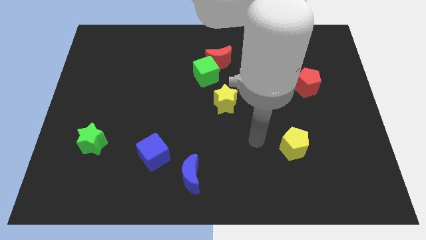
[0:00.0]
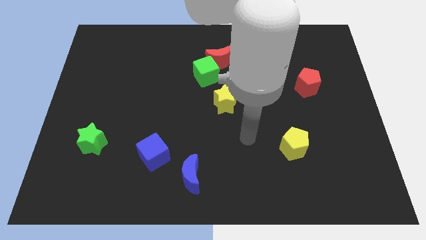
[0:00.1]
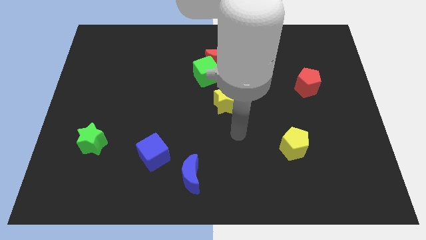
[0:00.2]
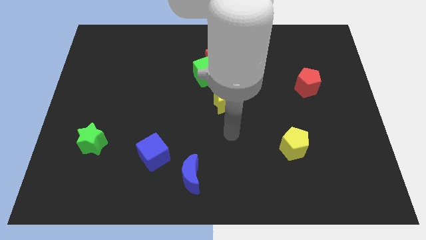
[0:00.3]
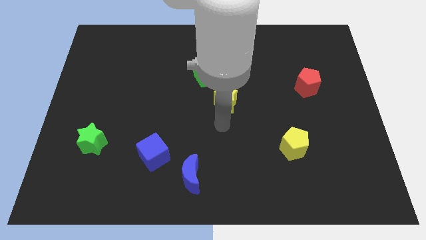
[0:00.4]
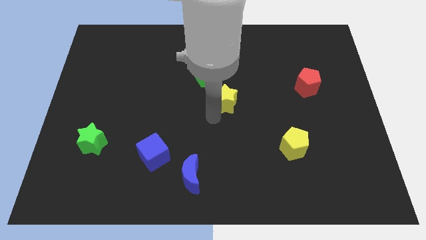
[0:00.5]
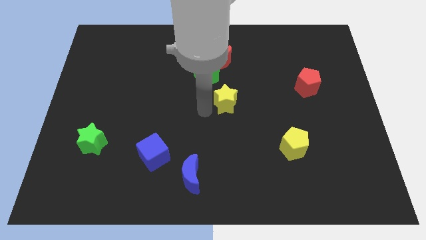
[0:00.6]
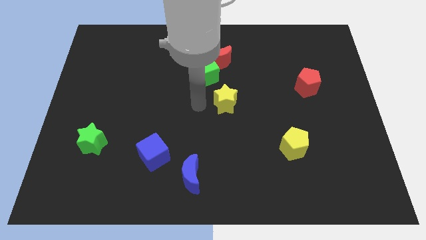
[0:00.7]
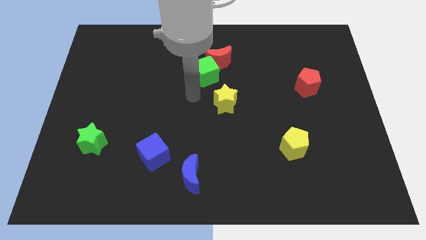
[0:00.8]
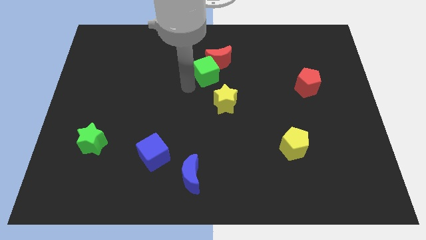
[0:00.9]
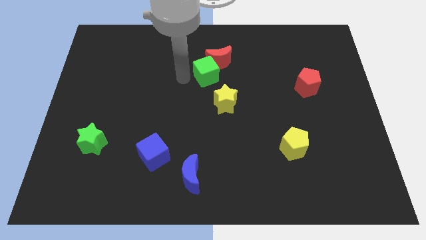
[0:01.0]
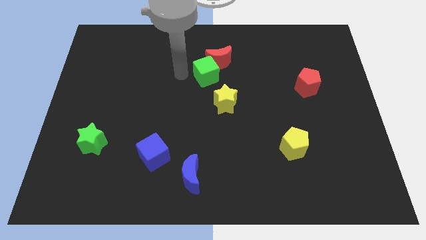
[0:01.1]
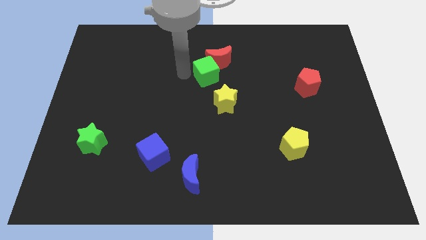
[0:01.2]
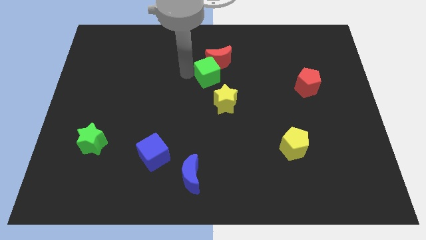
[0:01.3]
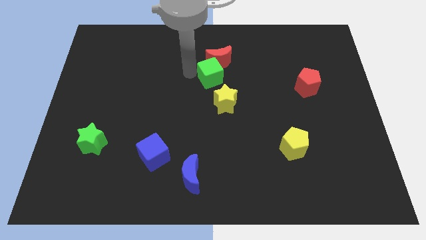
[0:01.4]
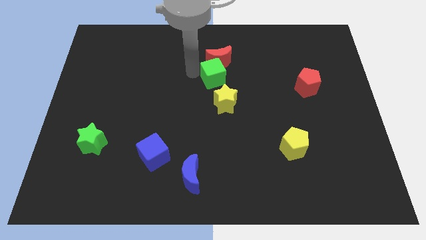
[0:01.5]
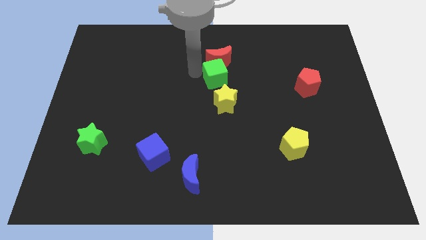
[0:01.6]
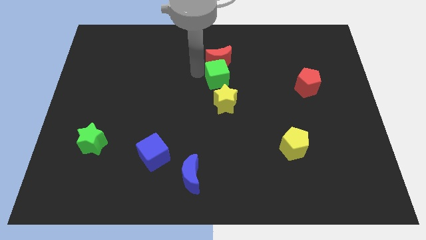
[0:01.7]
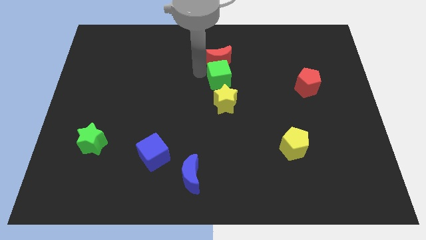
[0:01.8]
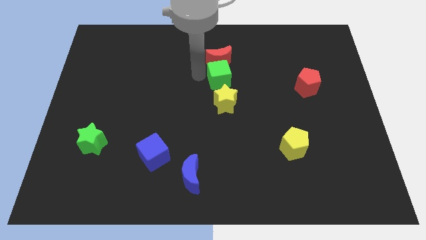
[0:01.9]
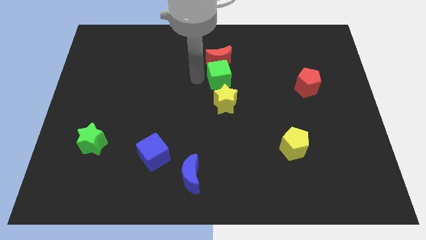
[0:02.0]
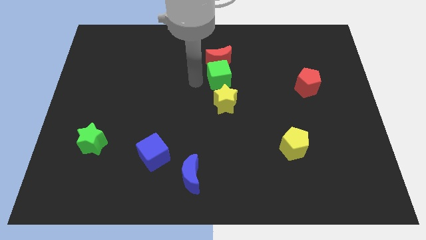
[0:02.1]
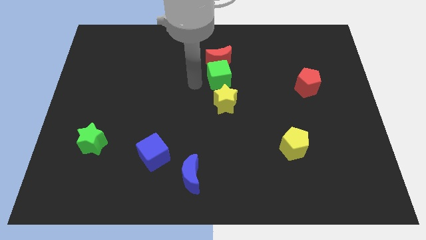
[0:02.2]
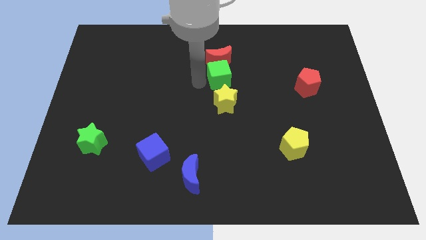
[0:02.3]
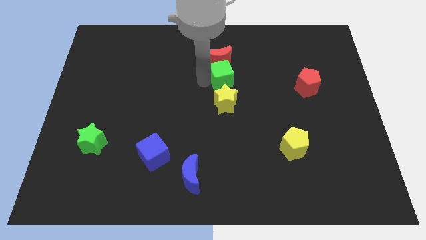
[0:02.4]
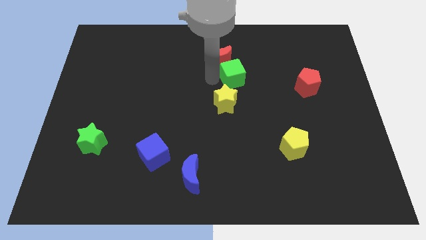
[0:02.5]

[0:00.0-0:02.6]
slide the green cube right slightly

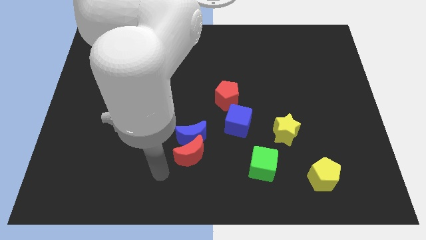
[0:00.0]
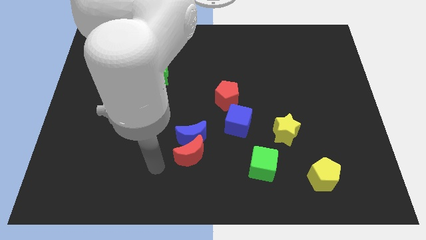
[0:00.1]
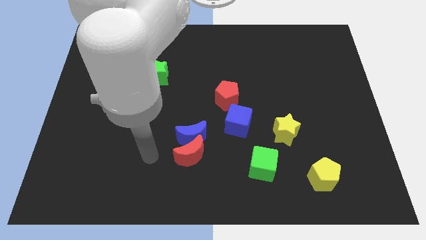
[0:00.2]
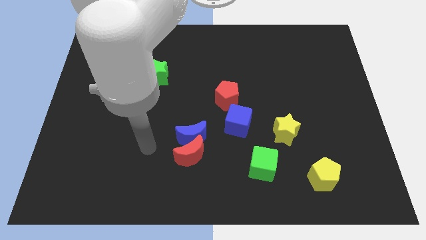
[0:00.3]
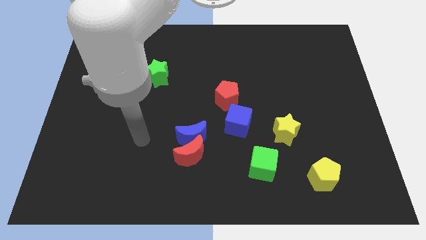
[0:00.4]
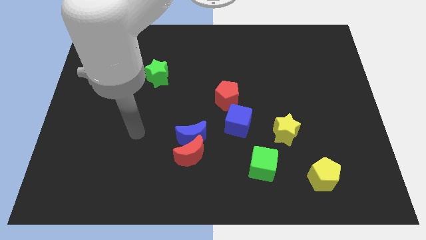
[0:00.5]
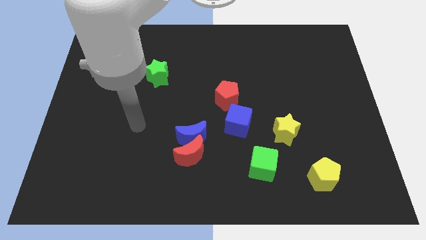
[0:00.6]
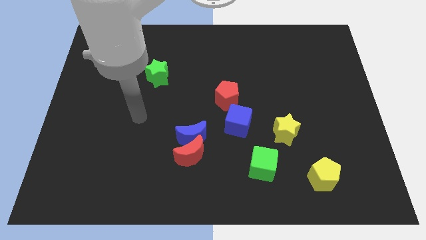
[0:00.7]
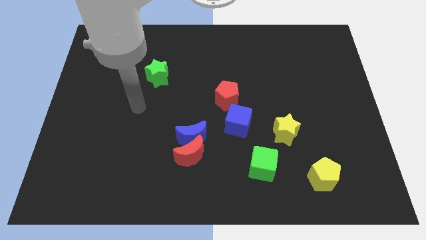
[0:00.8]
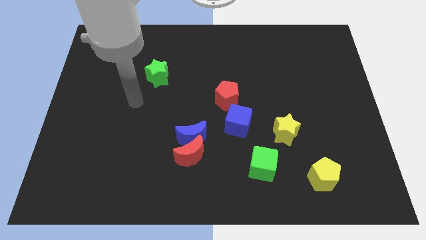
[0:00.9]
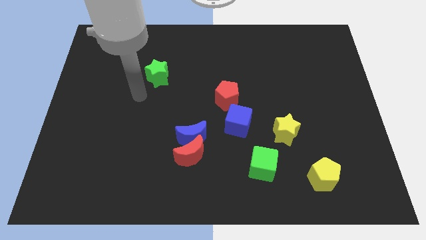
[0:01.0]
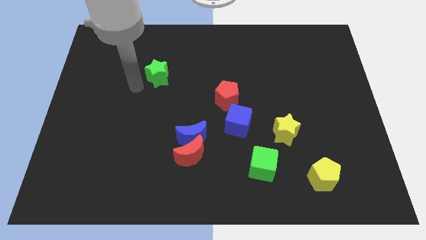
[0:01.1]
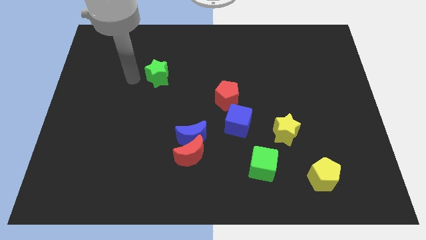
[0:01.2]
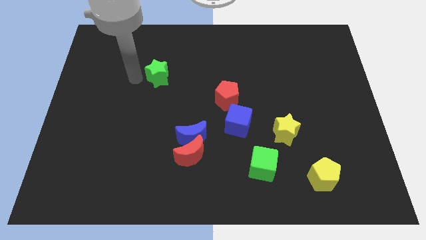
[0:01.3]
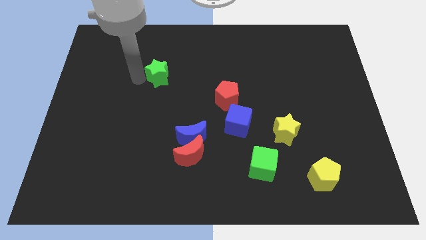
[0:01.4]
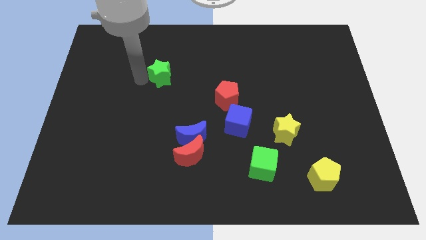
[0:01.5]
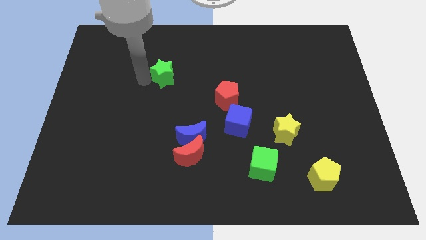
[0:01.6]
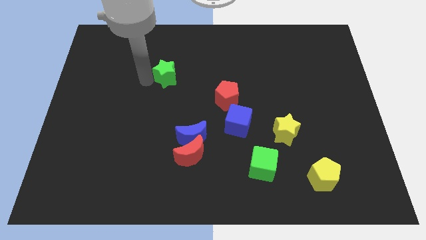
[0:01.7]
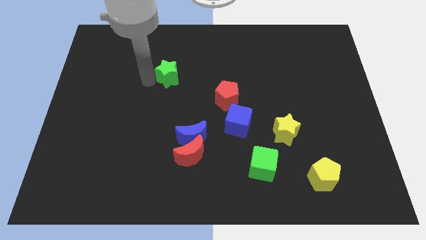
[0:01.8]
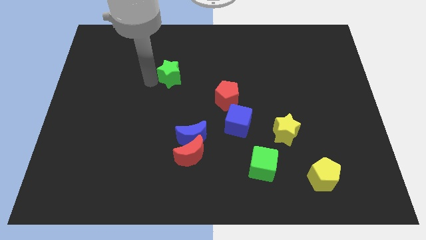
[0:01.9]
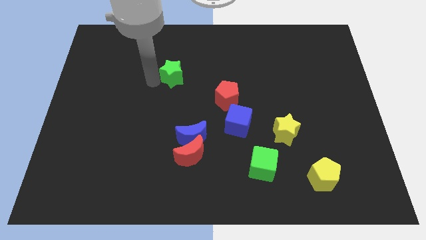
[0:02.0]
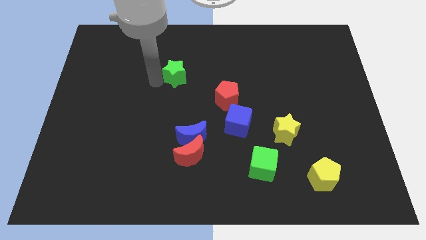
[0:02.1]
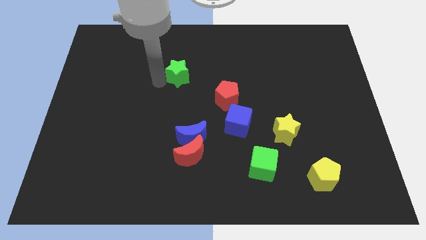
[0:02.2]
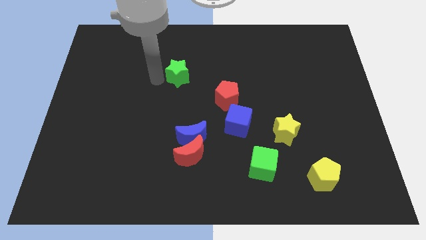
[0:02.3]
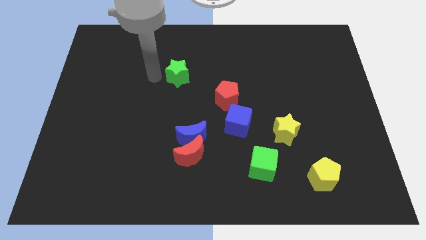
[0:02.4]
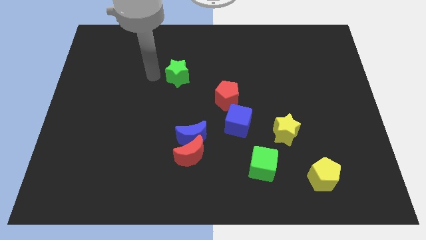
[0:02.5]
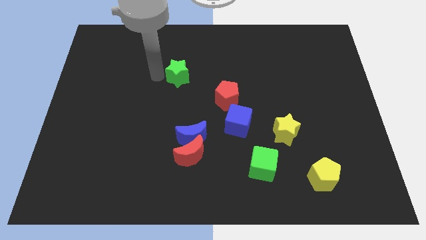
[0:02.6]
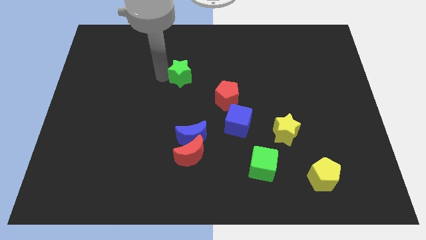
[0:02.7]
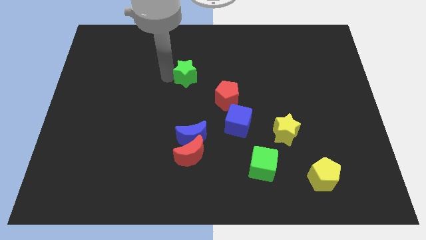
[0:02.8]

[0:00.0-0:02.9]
slide the green star a little bit right

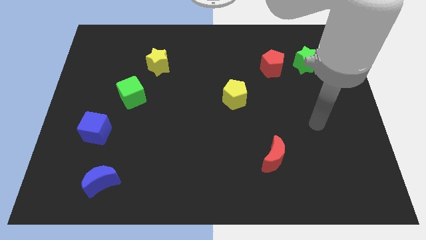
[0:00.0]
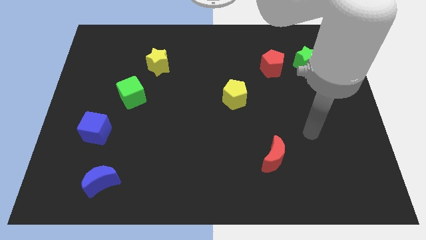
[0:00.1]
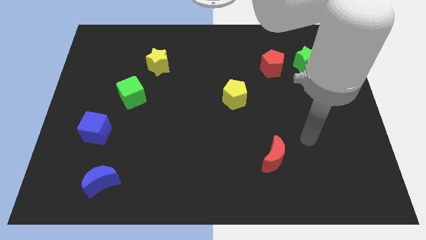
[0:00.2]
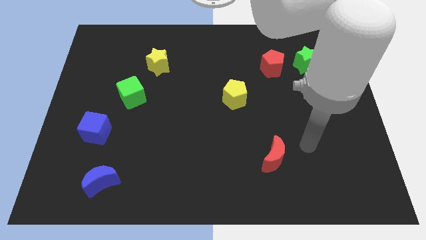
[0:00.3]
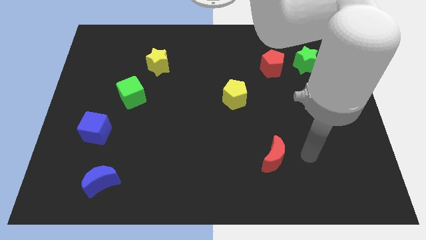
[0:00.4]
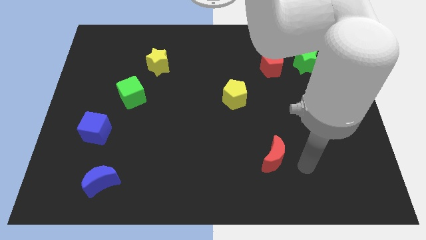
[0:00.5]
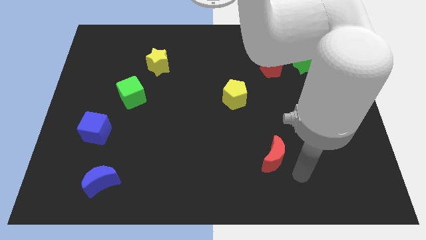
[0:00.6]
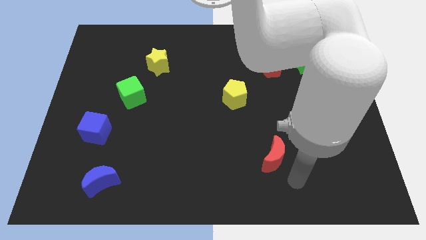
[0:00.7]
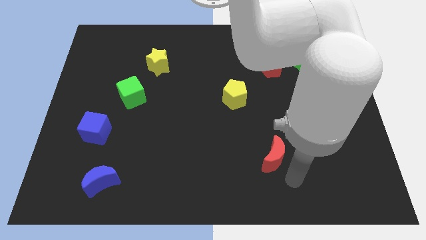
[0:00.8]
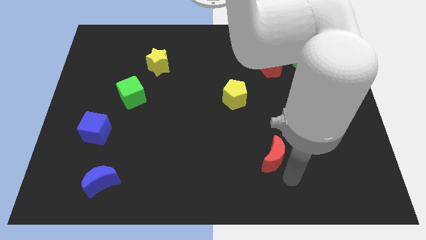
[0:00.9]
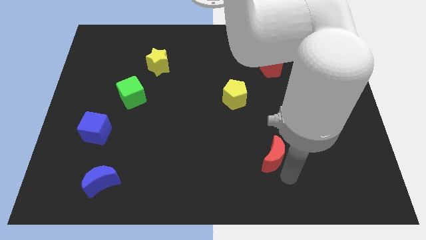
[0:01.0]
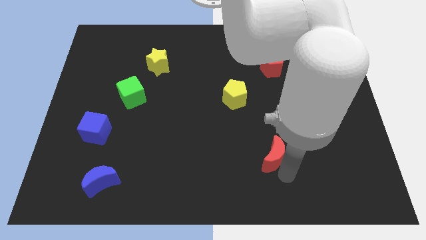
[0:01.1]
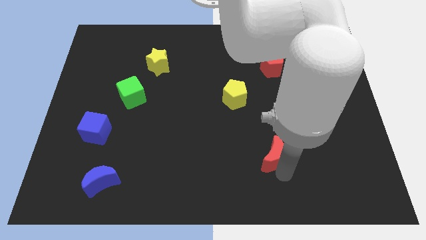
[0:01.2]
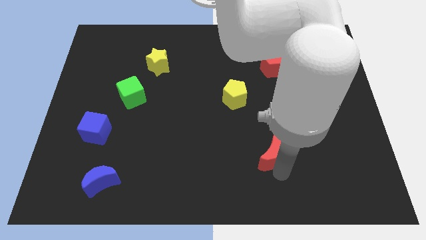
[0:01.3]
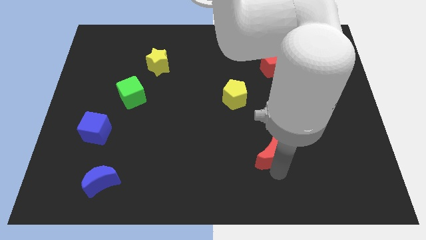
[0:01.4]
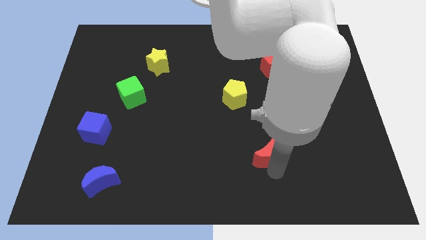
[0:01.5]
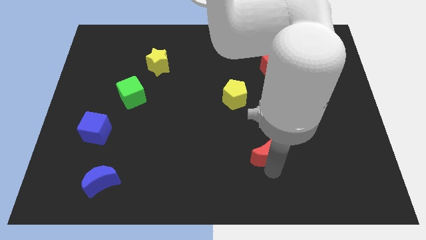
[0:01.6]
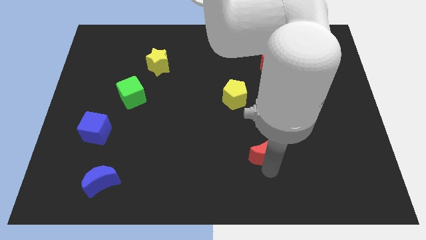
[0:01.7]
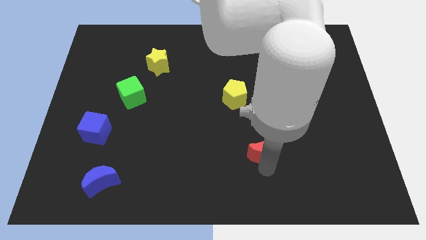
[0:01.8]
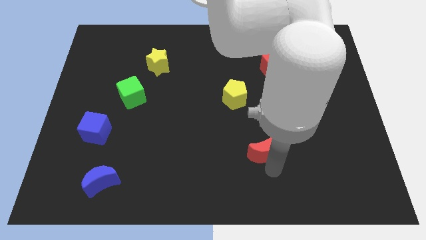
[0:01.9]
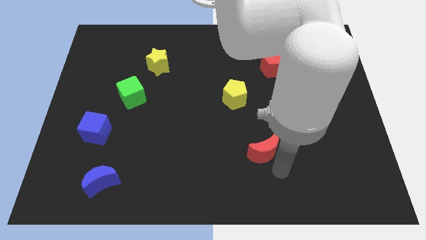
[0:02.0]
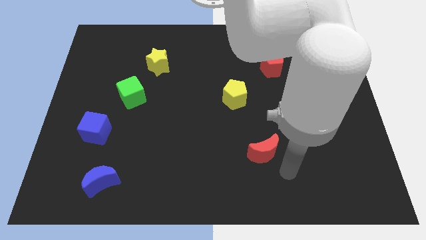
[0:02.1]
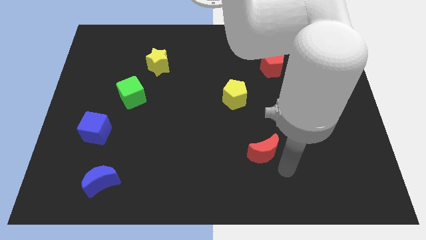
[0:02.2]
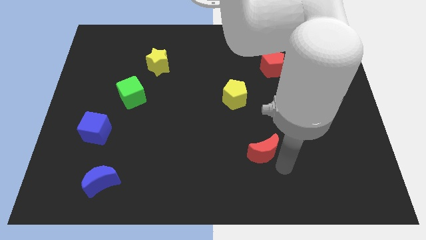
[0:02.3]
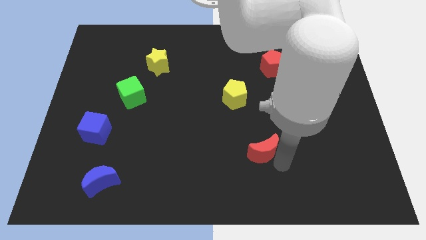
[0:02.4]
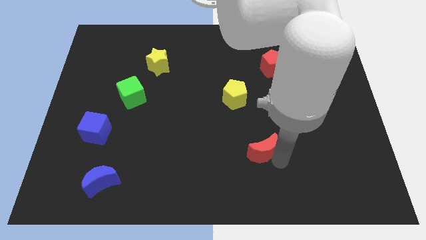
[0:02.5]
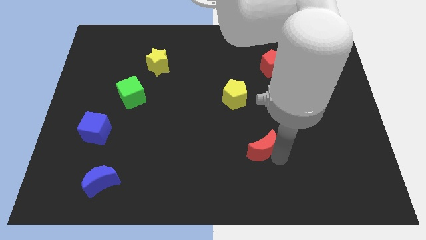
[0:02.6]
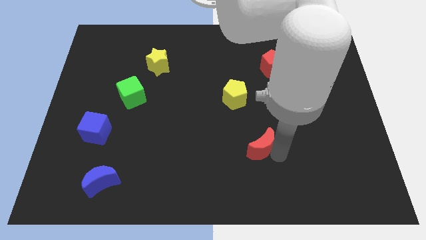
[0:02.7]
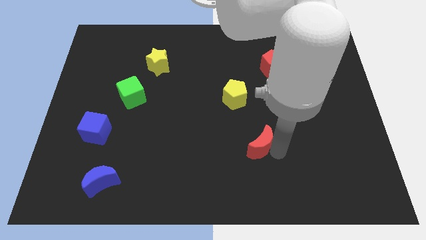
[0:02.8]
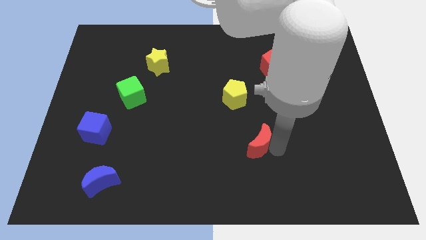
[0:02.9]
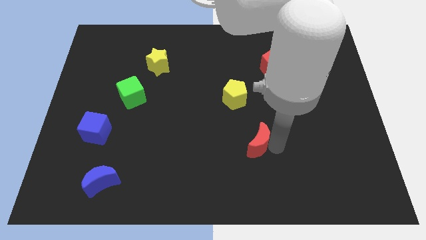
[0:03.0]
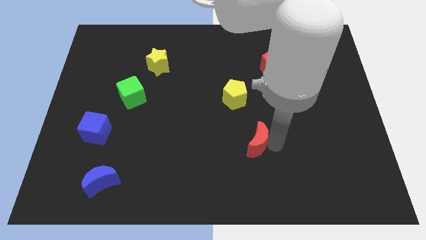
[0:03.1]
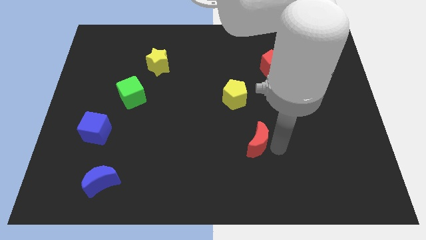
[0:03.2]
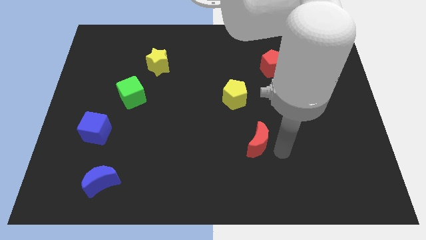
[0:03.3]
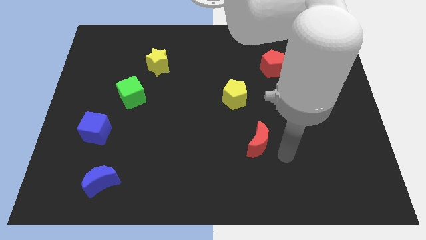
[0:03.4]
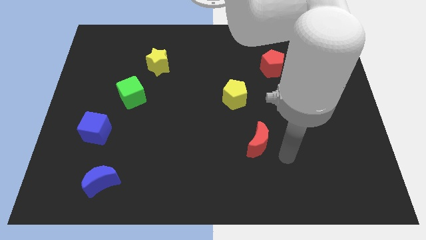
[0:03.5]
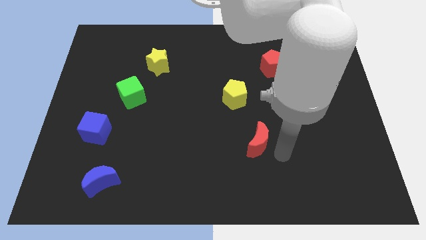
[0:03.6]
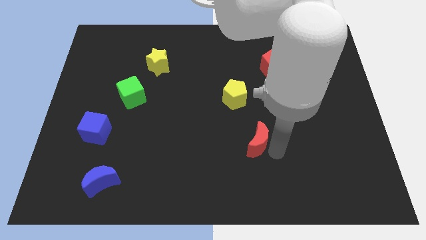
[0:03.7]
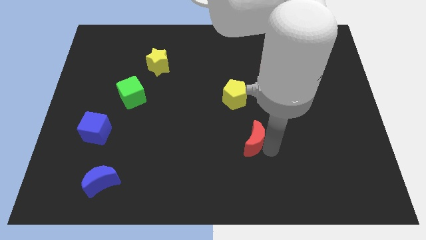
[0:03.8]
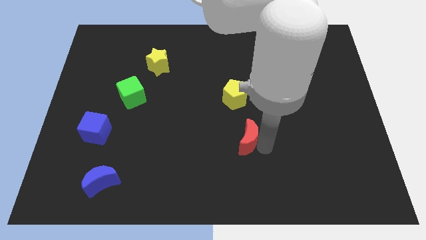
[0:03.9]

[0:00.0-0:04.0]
slide the red moon upwards and to the left diagonally slightly
